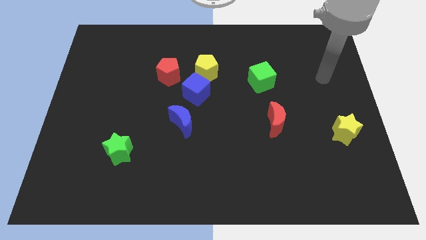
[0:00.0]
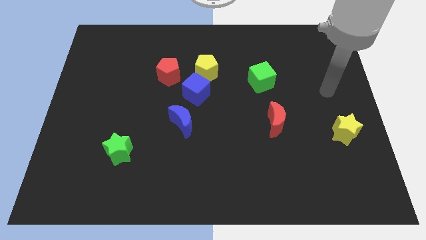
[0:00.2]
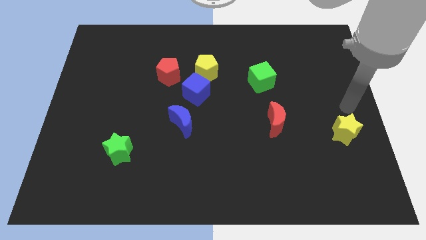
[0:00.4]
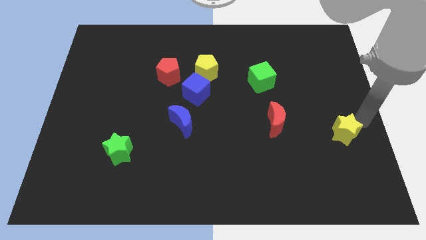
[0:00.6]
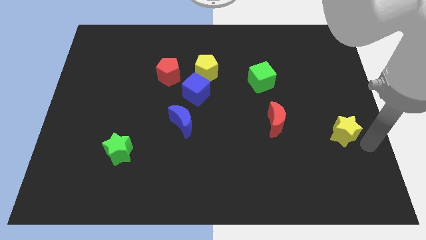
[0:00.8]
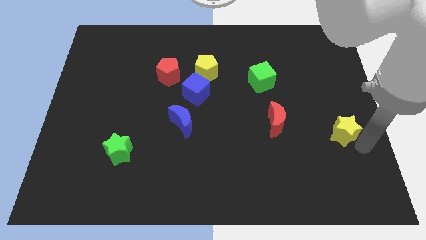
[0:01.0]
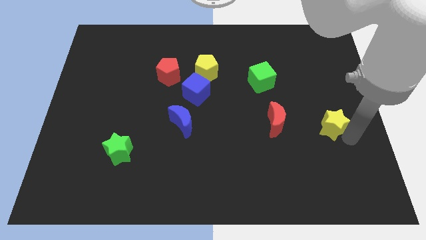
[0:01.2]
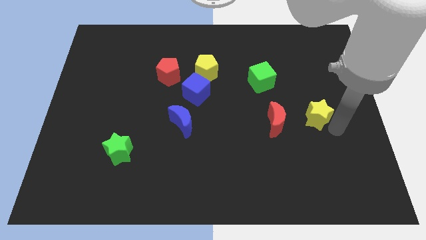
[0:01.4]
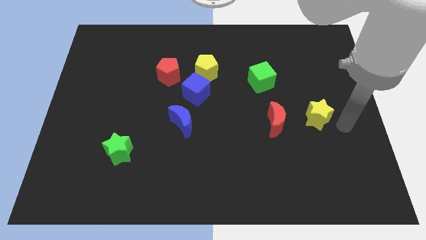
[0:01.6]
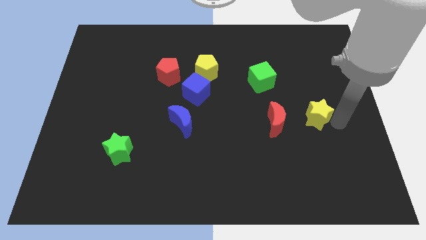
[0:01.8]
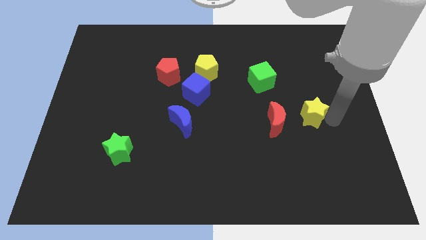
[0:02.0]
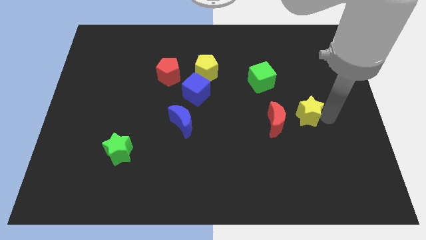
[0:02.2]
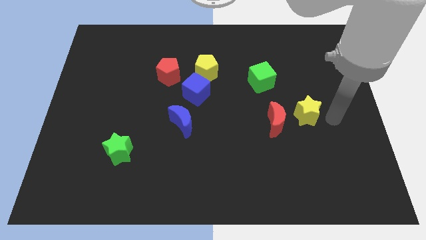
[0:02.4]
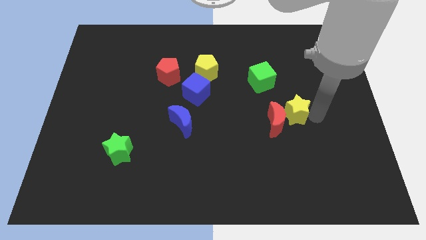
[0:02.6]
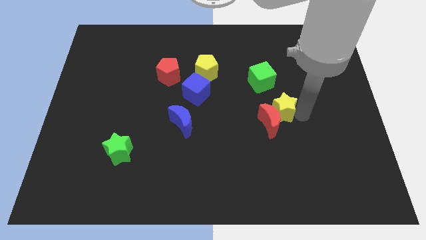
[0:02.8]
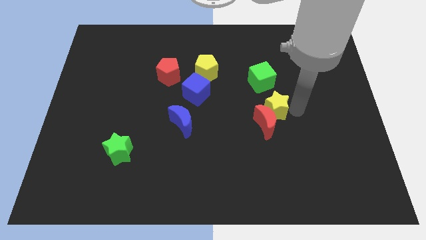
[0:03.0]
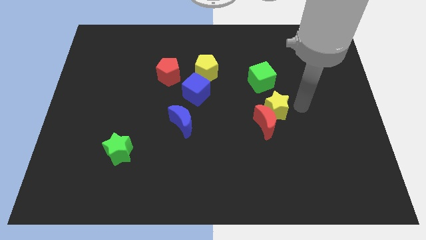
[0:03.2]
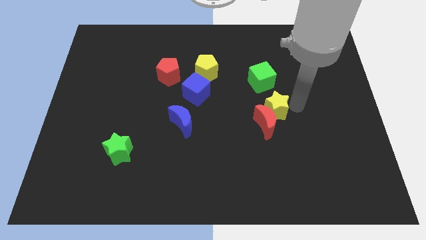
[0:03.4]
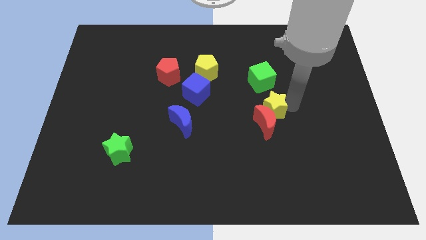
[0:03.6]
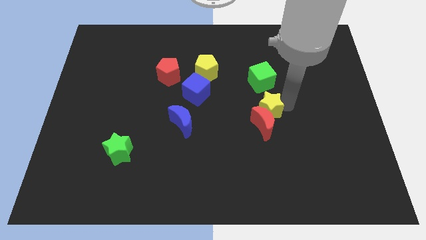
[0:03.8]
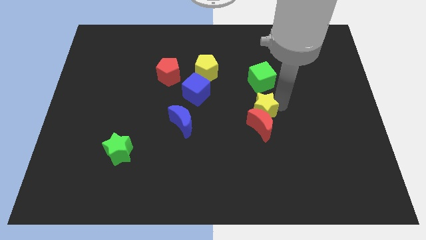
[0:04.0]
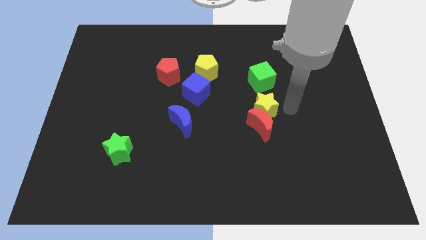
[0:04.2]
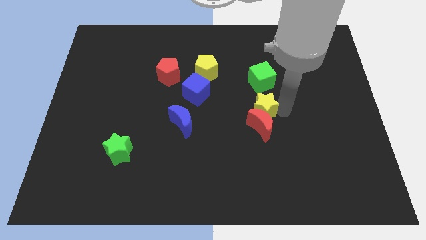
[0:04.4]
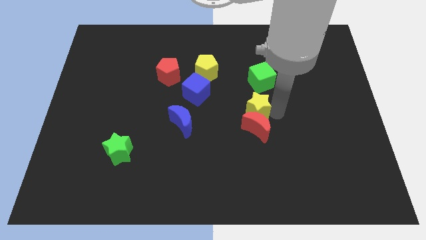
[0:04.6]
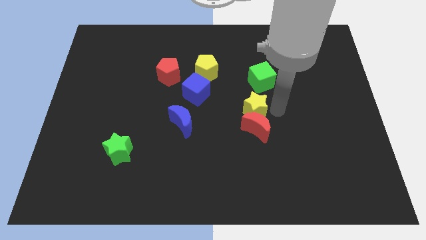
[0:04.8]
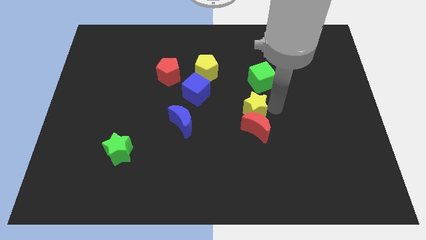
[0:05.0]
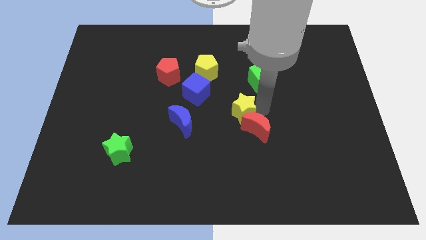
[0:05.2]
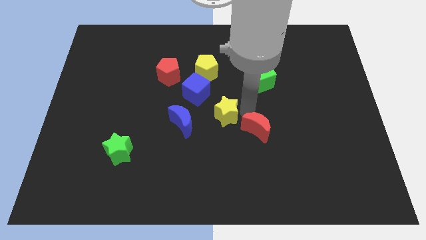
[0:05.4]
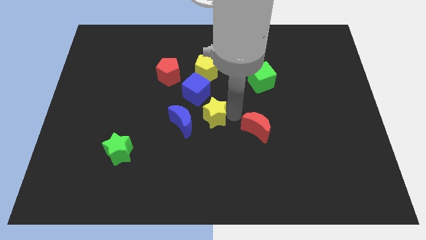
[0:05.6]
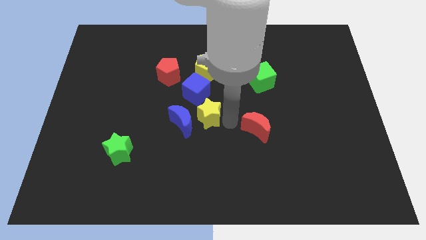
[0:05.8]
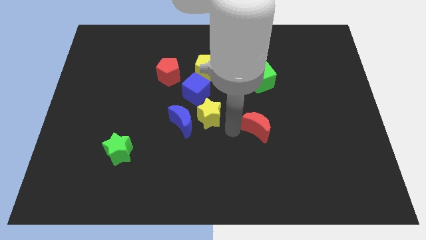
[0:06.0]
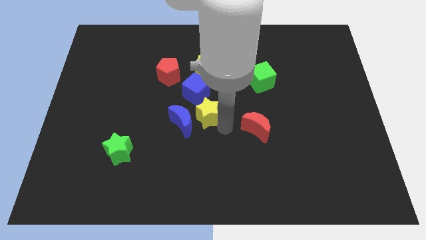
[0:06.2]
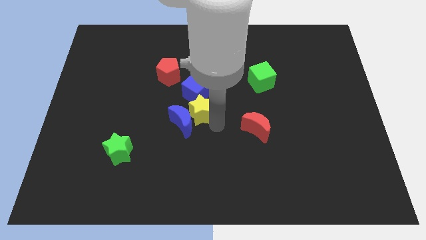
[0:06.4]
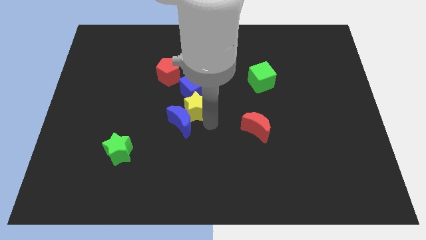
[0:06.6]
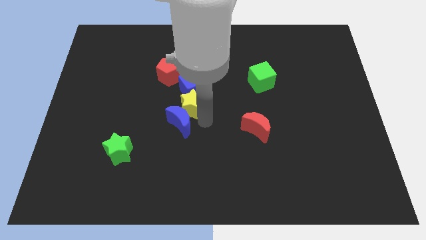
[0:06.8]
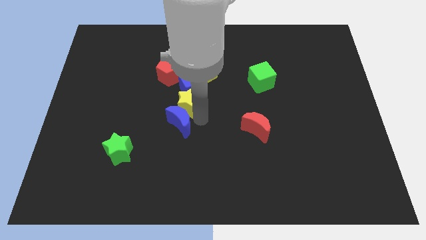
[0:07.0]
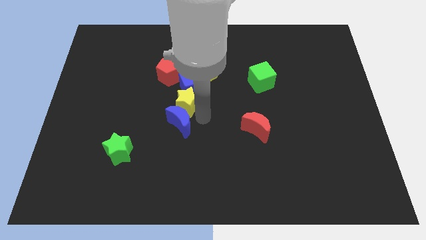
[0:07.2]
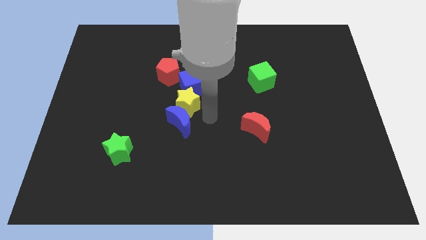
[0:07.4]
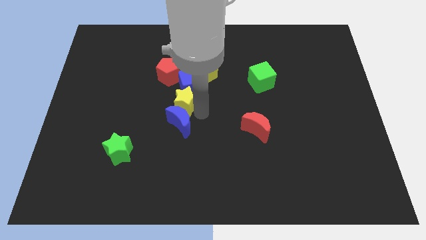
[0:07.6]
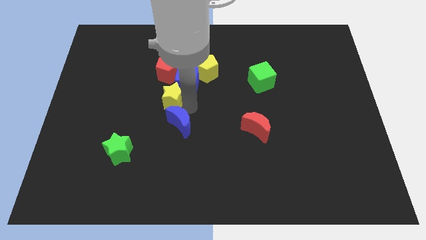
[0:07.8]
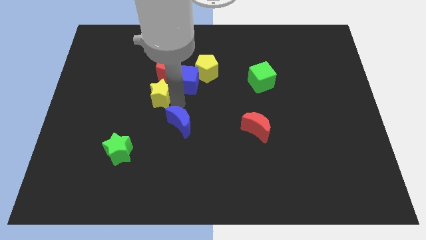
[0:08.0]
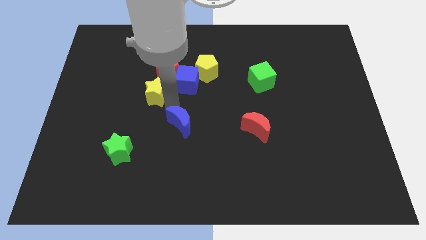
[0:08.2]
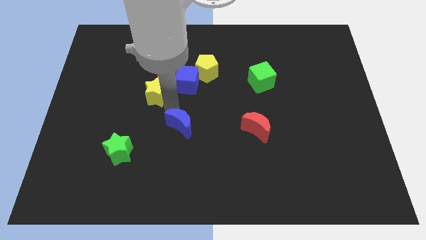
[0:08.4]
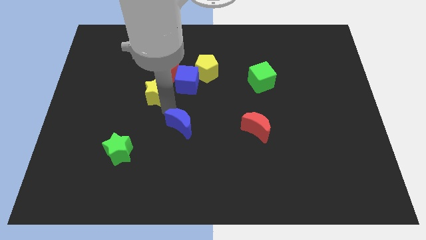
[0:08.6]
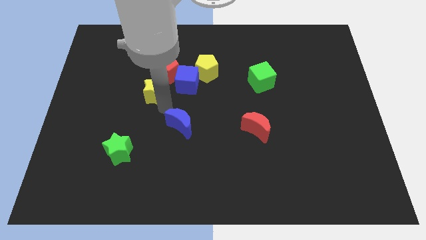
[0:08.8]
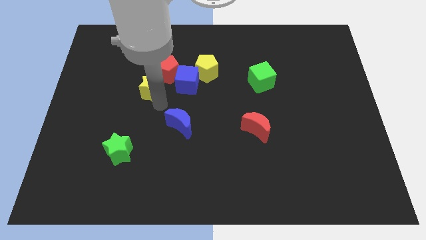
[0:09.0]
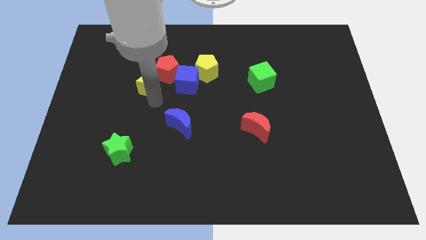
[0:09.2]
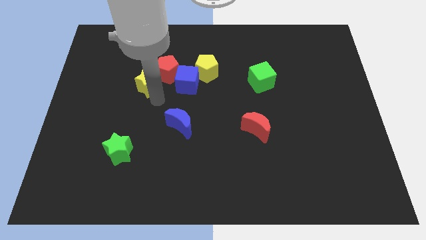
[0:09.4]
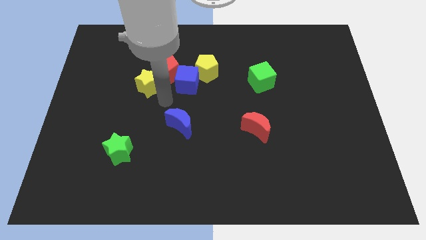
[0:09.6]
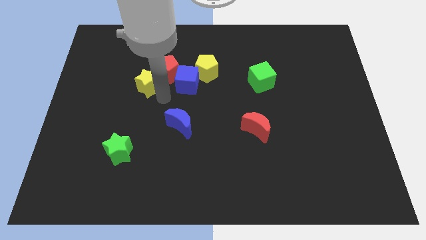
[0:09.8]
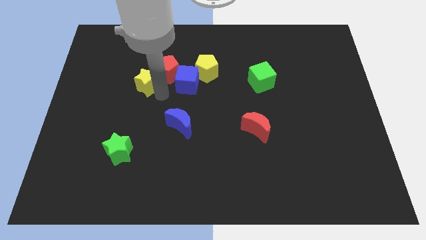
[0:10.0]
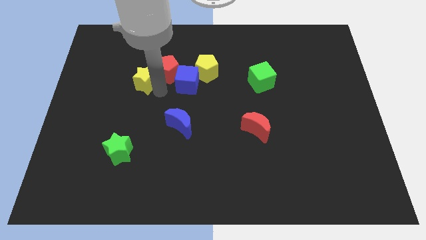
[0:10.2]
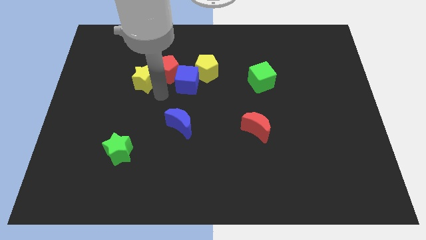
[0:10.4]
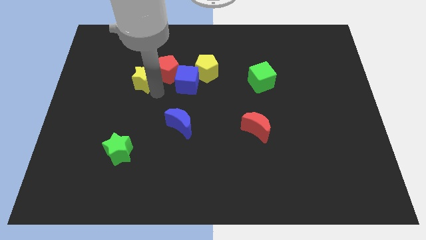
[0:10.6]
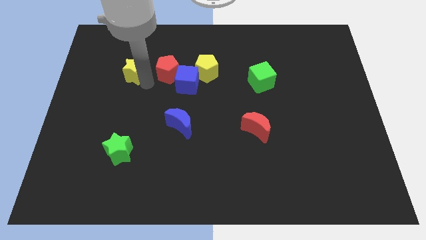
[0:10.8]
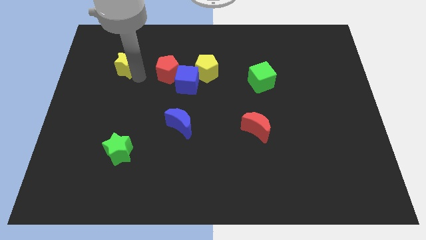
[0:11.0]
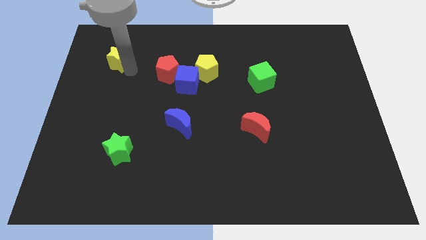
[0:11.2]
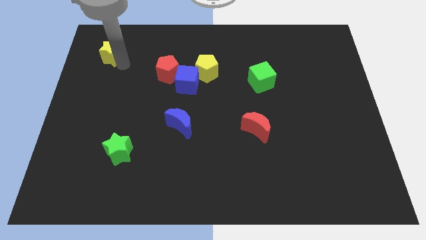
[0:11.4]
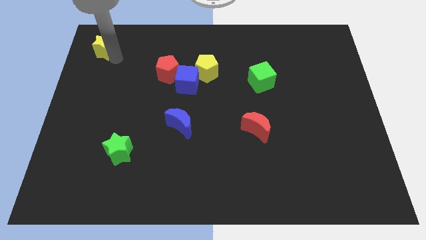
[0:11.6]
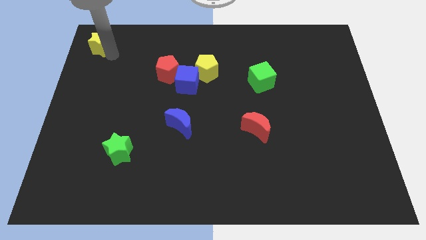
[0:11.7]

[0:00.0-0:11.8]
put the yellow star to the top left

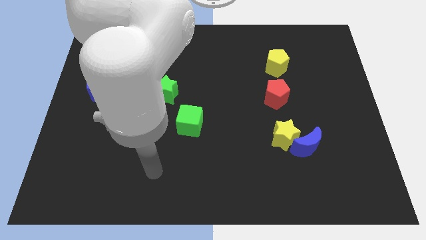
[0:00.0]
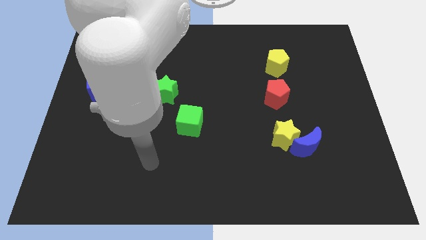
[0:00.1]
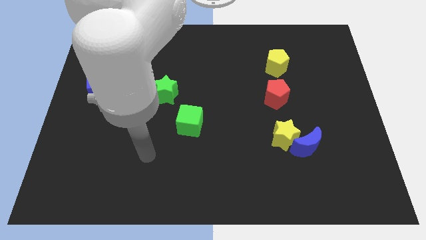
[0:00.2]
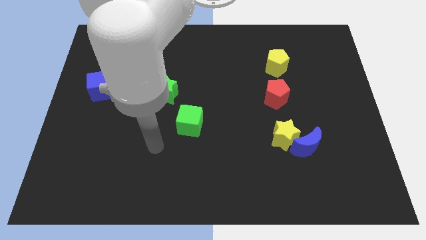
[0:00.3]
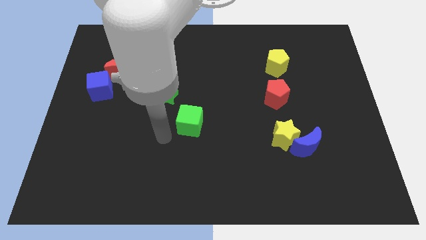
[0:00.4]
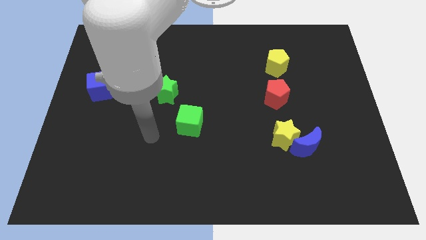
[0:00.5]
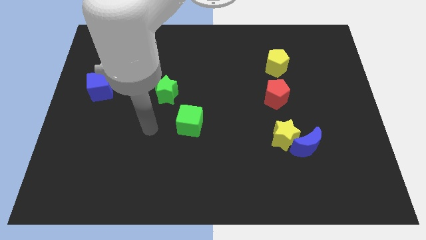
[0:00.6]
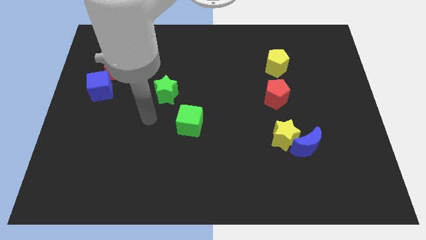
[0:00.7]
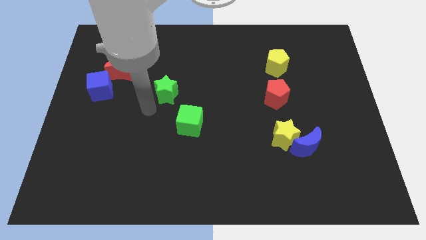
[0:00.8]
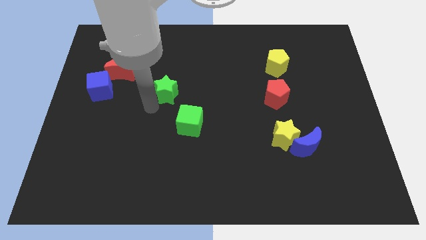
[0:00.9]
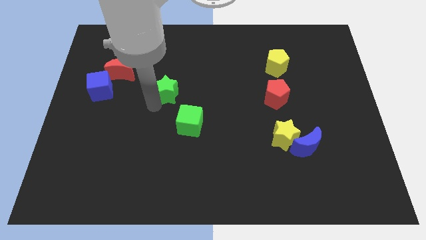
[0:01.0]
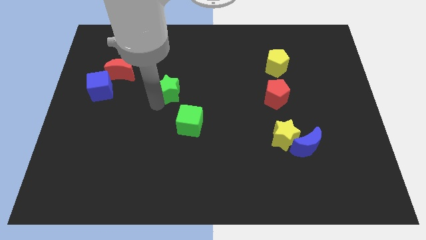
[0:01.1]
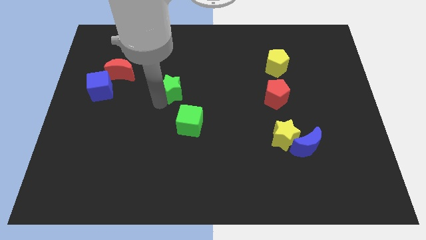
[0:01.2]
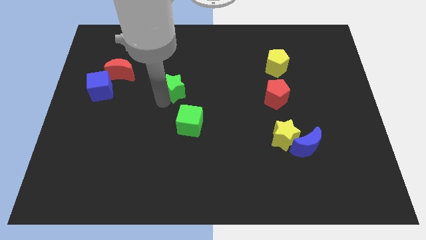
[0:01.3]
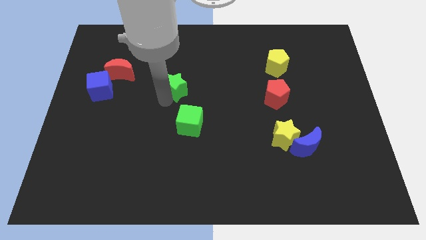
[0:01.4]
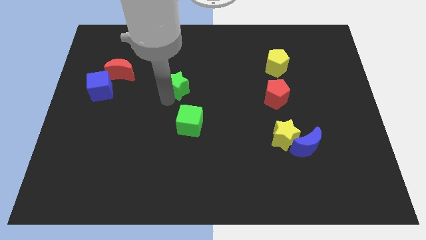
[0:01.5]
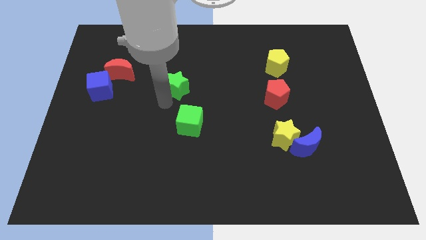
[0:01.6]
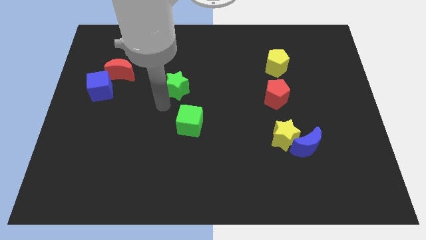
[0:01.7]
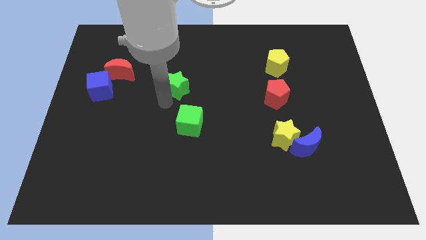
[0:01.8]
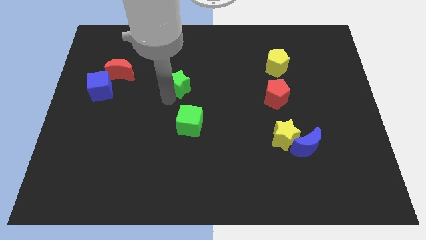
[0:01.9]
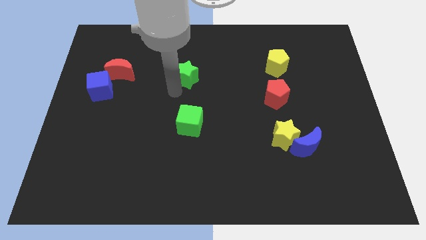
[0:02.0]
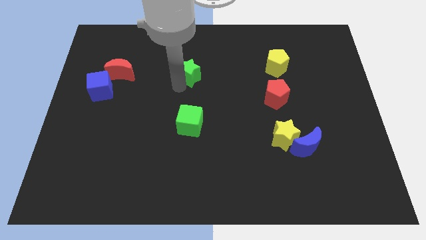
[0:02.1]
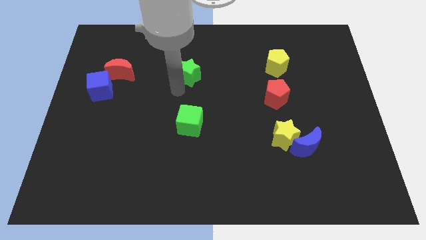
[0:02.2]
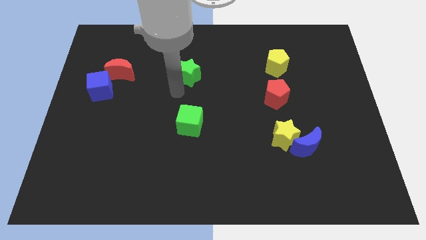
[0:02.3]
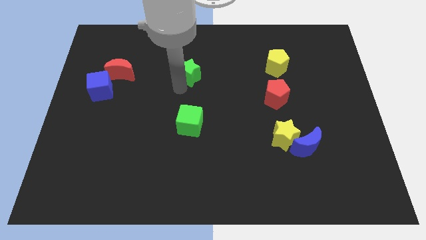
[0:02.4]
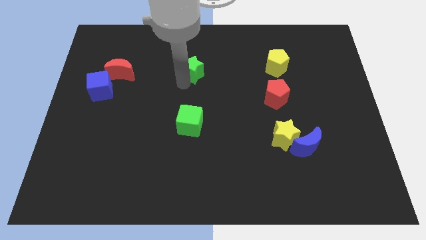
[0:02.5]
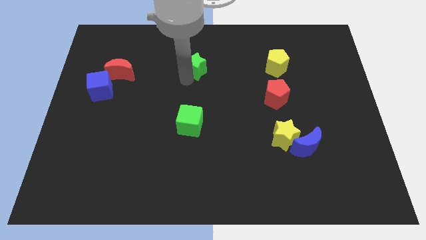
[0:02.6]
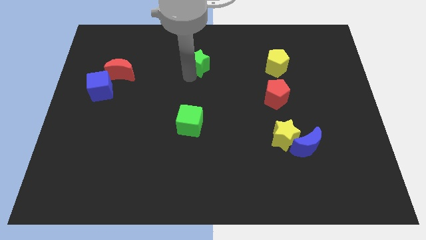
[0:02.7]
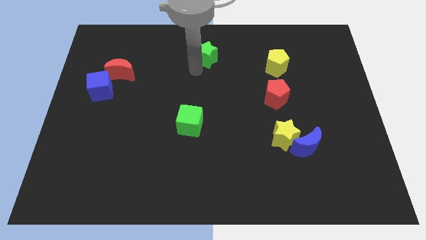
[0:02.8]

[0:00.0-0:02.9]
put the green star to the top side
